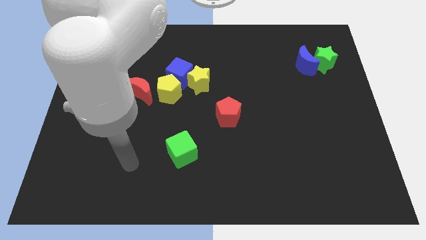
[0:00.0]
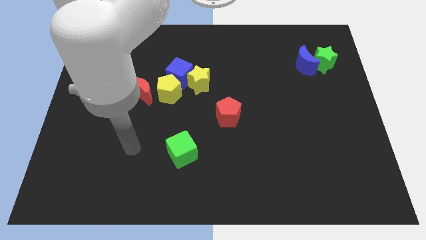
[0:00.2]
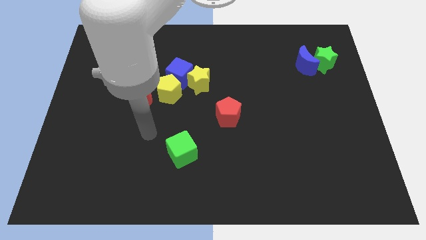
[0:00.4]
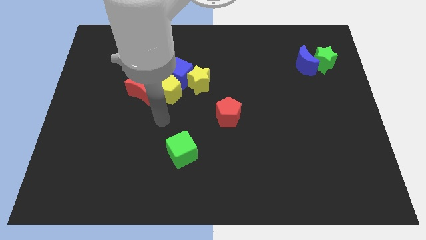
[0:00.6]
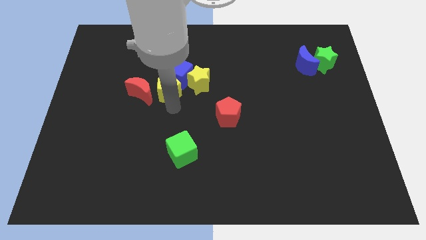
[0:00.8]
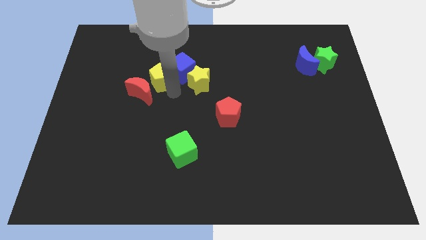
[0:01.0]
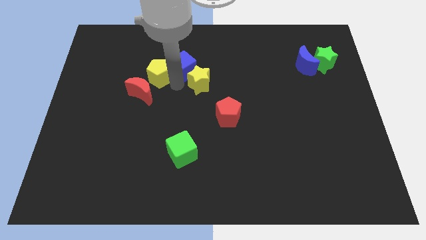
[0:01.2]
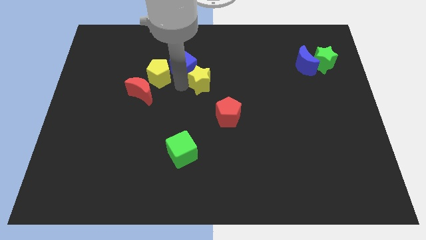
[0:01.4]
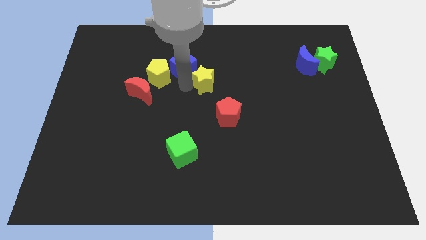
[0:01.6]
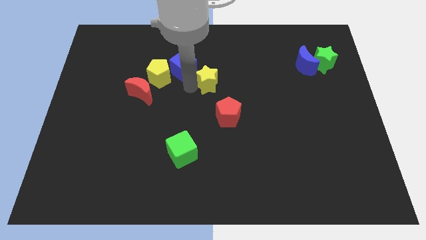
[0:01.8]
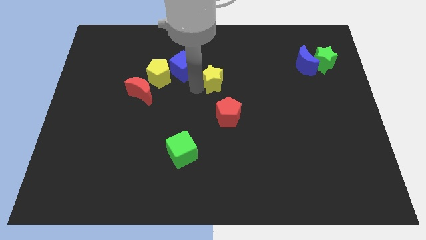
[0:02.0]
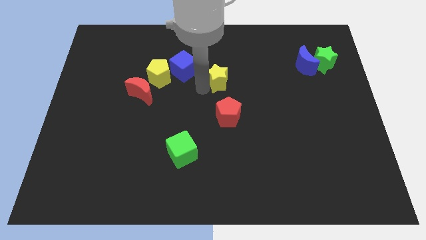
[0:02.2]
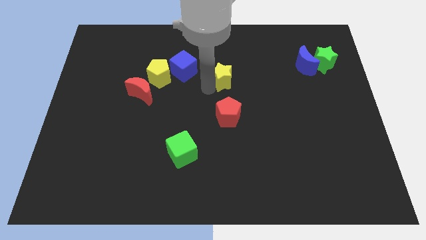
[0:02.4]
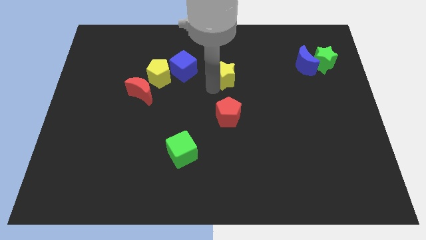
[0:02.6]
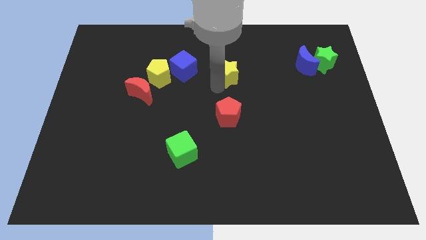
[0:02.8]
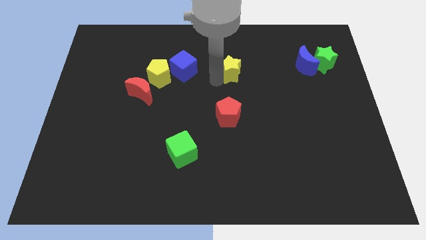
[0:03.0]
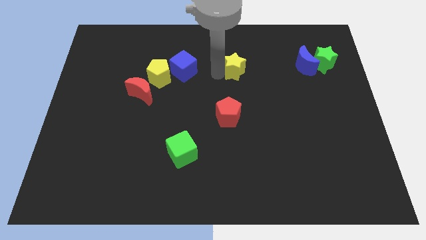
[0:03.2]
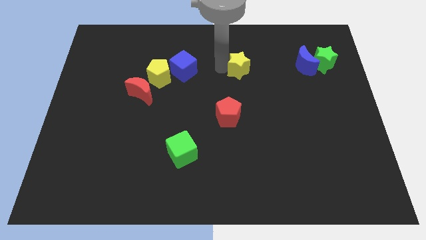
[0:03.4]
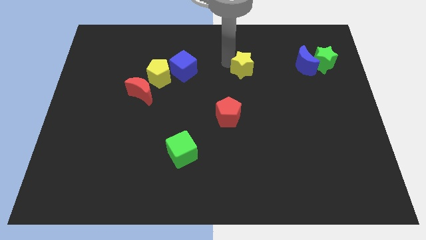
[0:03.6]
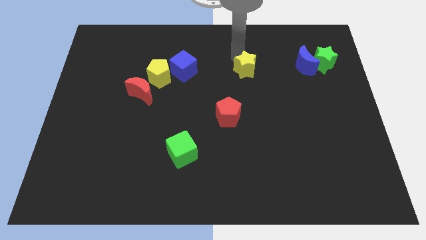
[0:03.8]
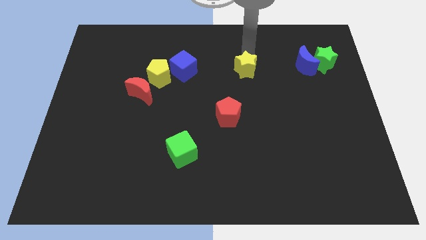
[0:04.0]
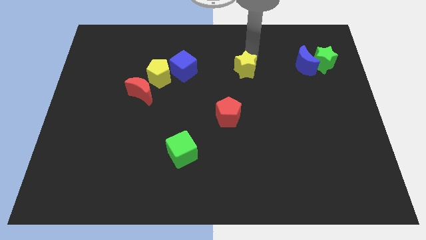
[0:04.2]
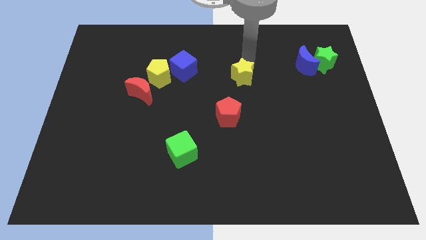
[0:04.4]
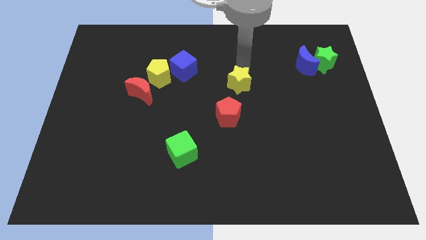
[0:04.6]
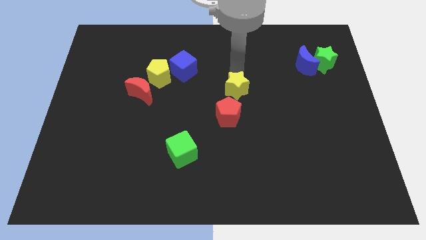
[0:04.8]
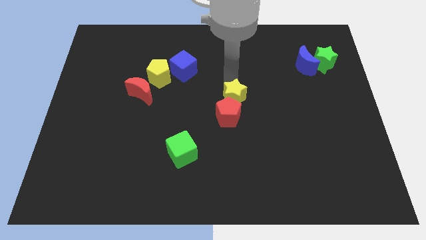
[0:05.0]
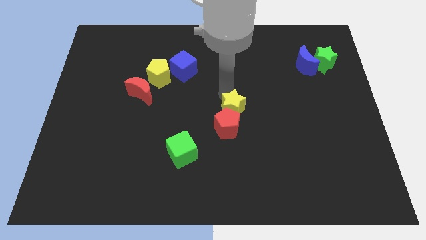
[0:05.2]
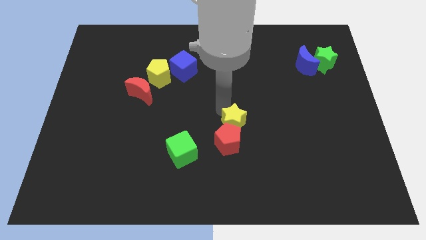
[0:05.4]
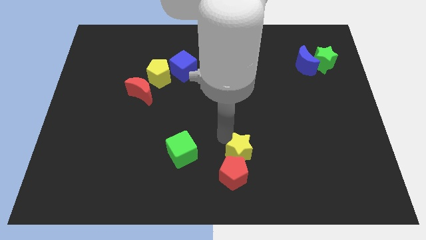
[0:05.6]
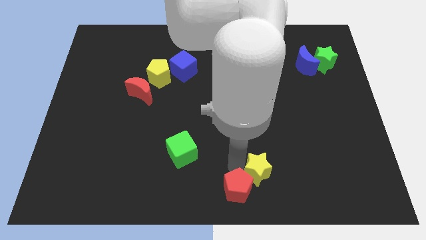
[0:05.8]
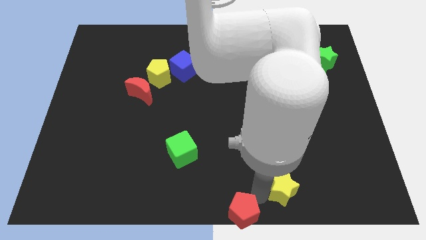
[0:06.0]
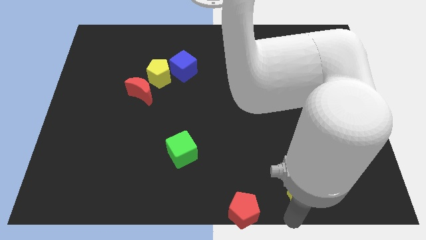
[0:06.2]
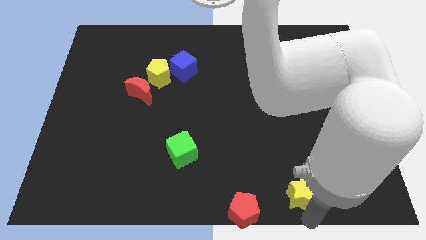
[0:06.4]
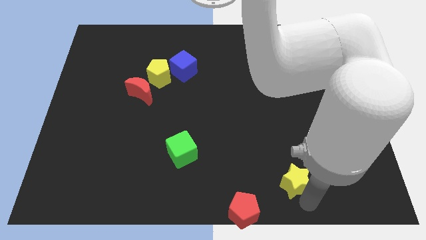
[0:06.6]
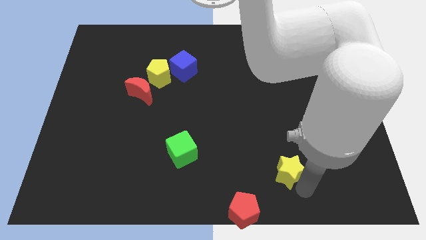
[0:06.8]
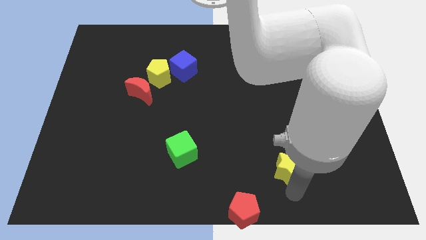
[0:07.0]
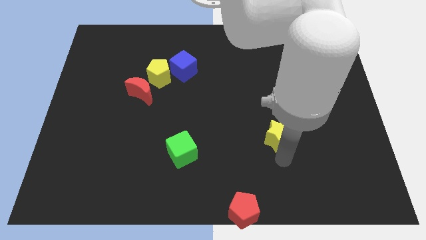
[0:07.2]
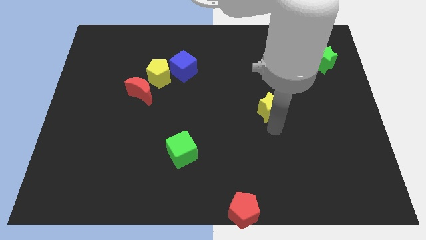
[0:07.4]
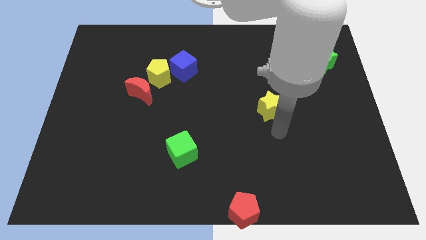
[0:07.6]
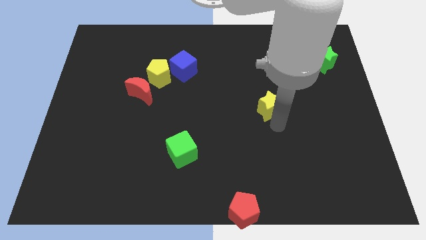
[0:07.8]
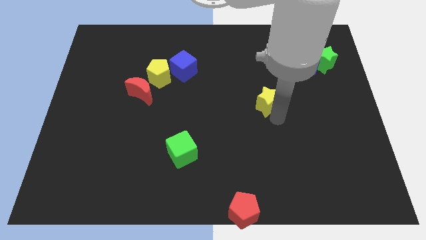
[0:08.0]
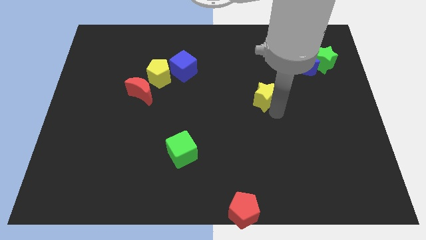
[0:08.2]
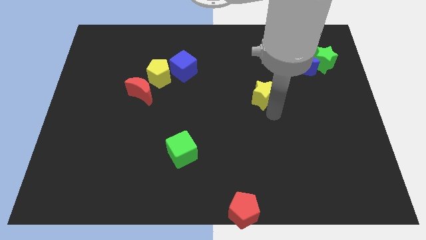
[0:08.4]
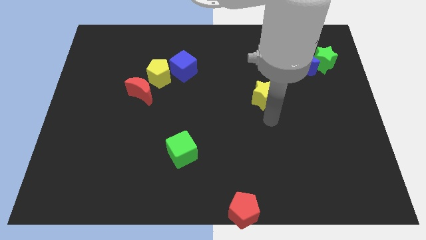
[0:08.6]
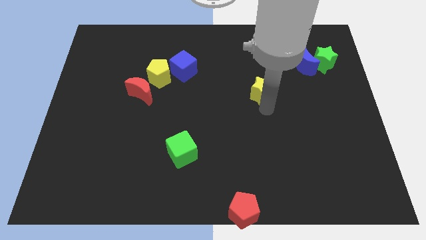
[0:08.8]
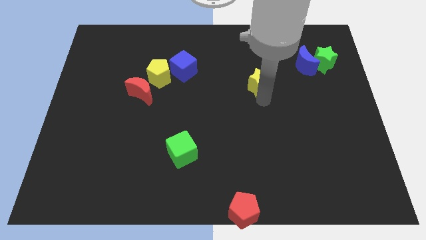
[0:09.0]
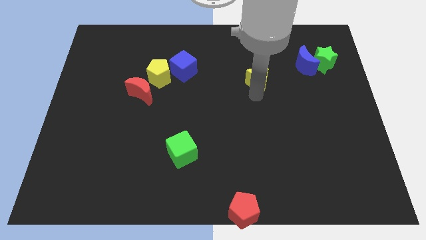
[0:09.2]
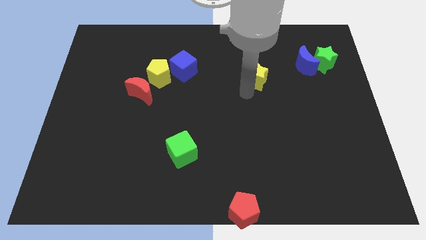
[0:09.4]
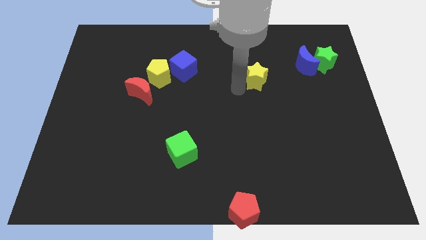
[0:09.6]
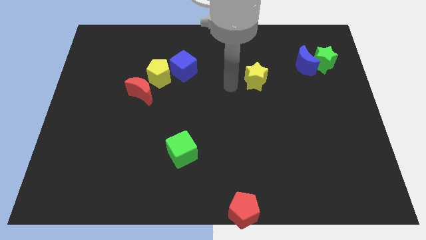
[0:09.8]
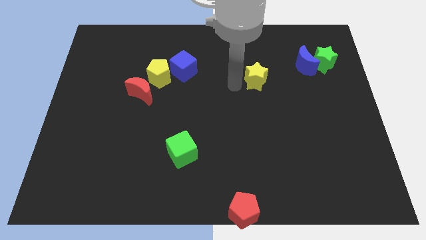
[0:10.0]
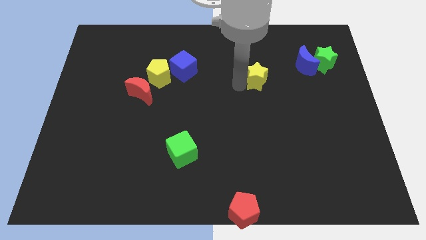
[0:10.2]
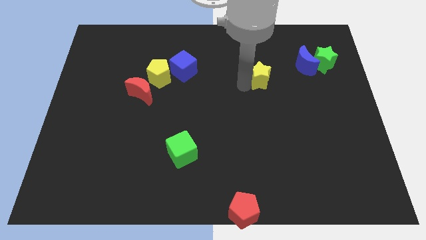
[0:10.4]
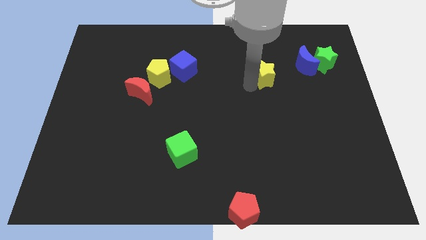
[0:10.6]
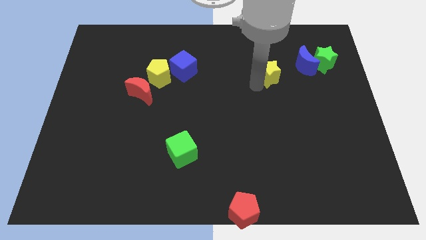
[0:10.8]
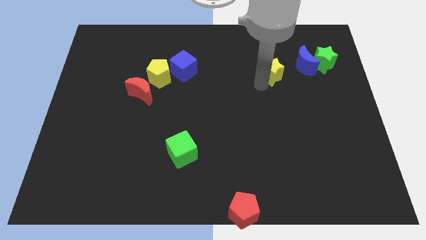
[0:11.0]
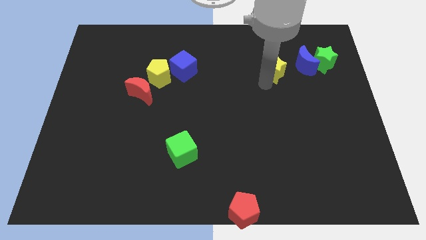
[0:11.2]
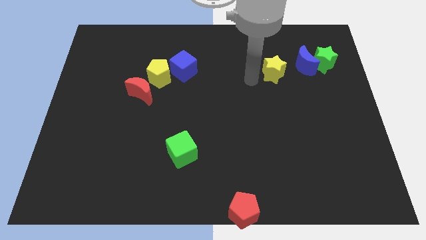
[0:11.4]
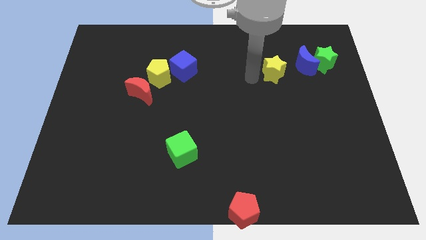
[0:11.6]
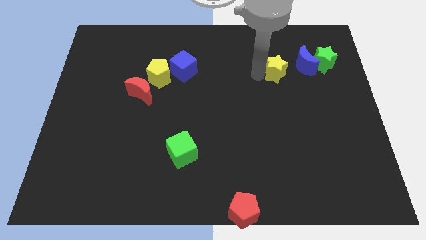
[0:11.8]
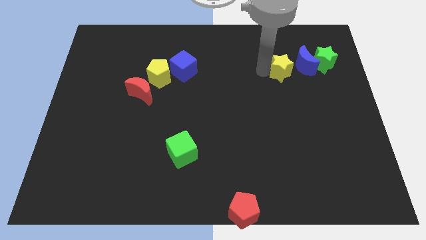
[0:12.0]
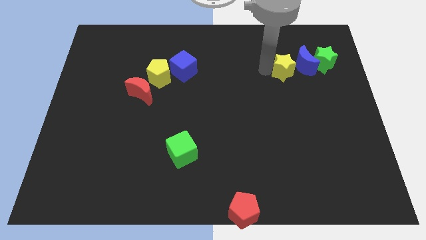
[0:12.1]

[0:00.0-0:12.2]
push the yellow star towards the blue moon

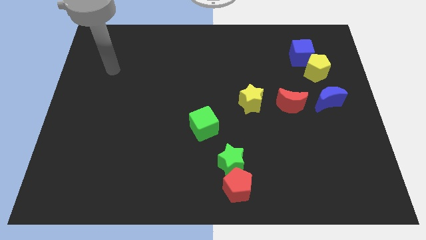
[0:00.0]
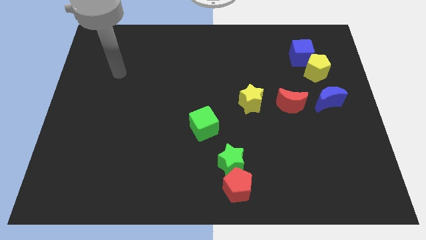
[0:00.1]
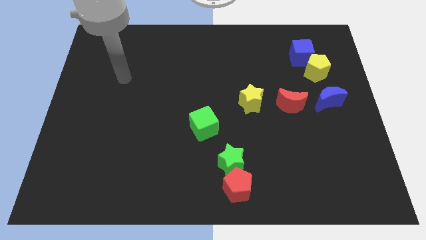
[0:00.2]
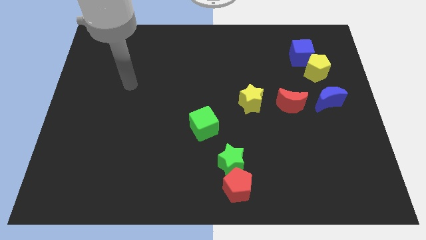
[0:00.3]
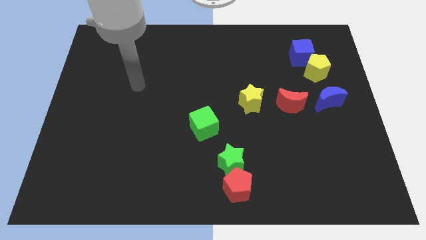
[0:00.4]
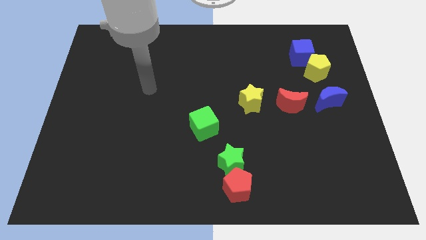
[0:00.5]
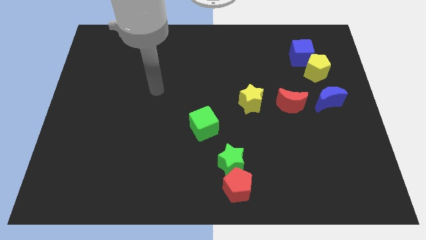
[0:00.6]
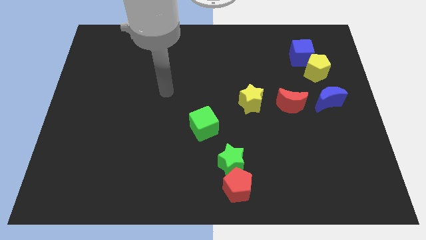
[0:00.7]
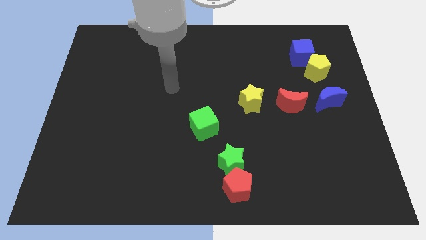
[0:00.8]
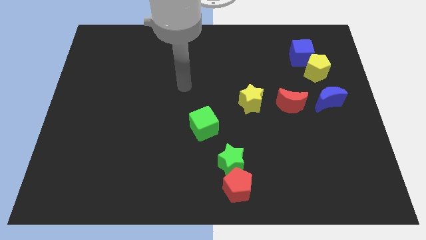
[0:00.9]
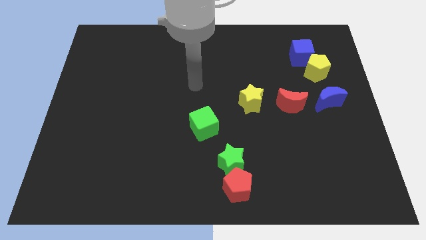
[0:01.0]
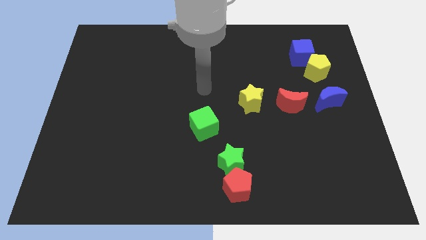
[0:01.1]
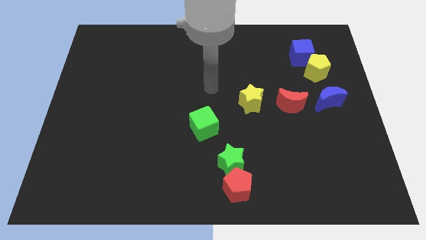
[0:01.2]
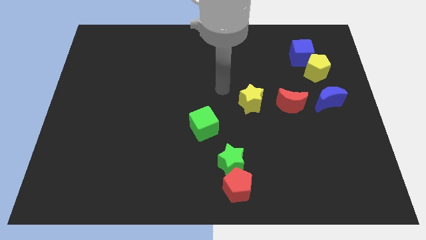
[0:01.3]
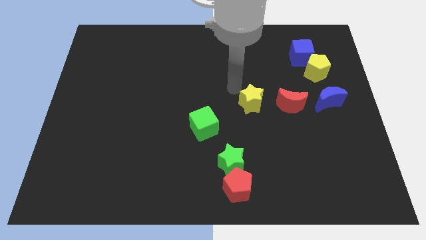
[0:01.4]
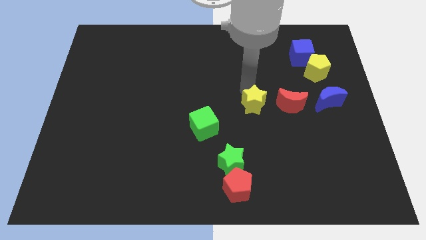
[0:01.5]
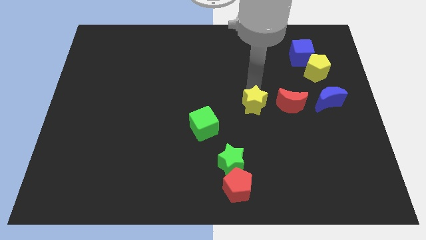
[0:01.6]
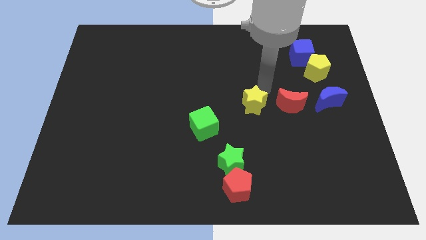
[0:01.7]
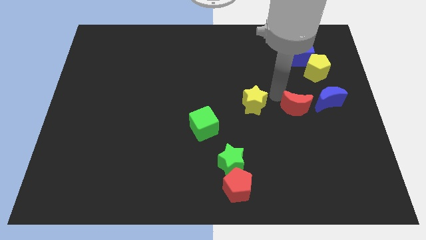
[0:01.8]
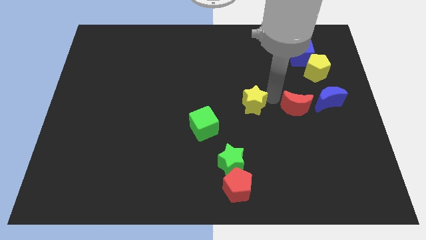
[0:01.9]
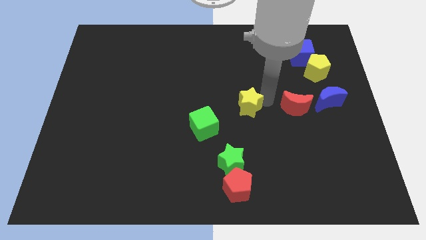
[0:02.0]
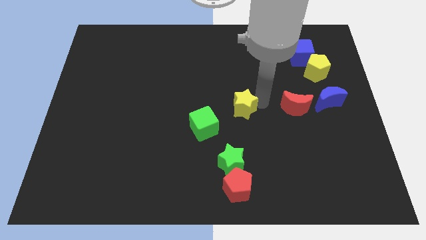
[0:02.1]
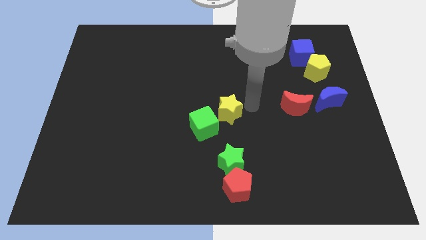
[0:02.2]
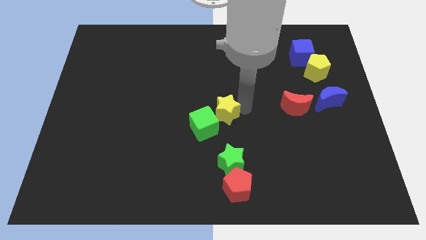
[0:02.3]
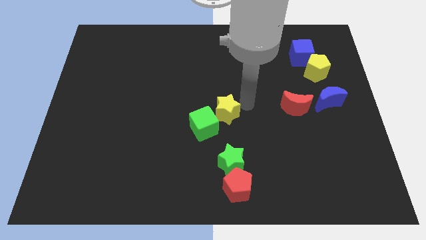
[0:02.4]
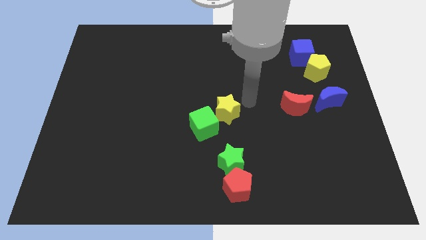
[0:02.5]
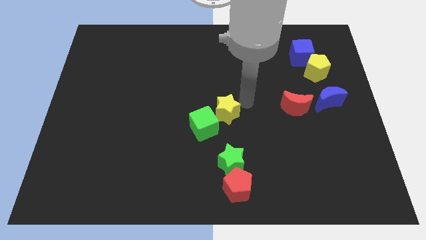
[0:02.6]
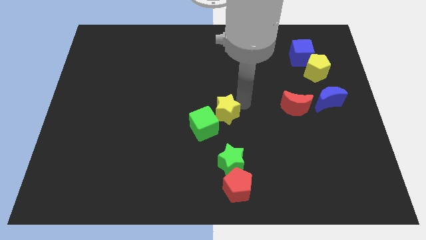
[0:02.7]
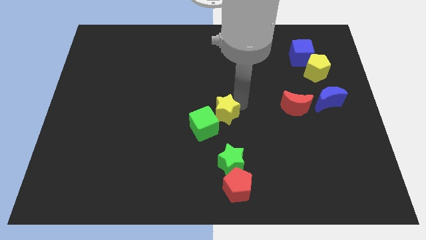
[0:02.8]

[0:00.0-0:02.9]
slide the yellow star close to the green cube
